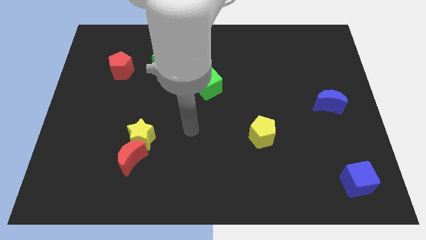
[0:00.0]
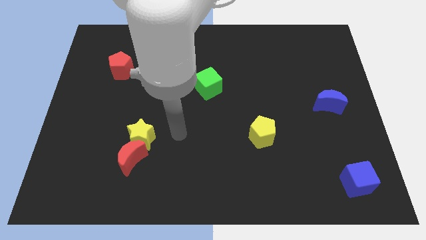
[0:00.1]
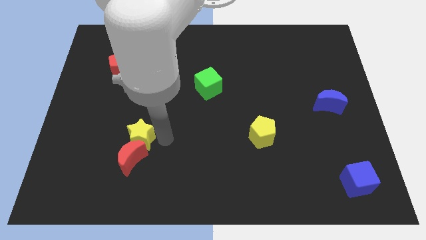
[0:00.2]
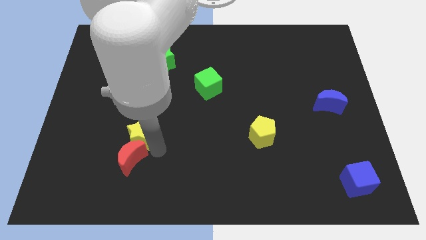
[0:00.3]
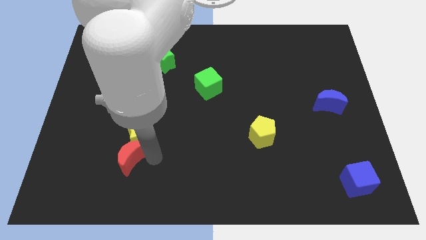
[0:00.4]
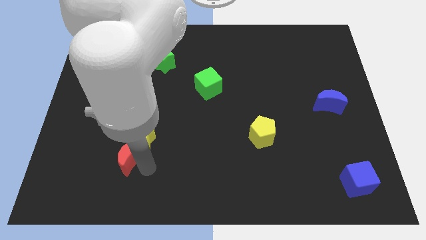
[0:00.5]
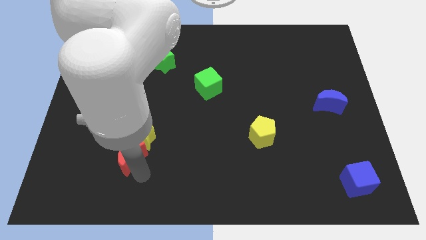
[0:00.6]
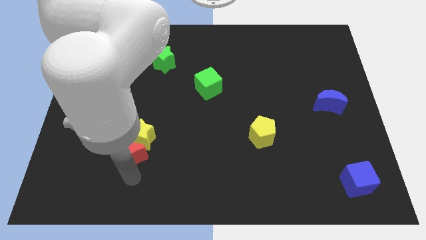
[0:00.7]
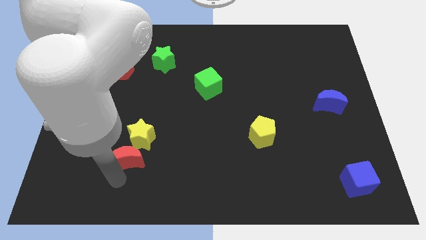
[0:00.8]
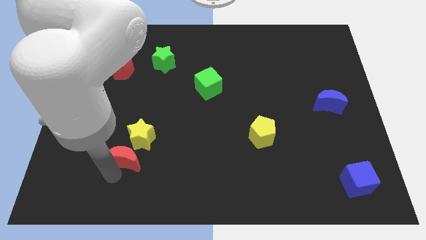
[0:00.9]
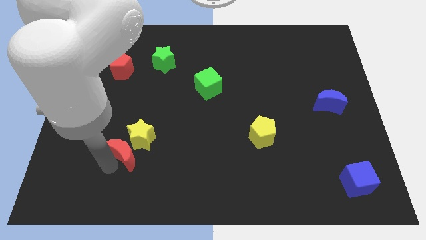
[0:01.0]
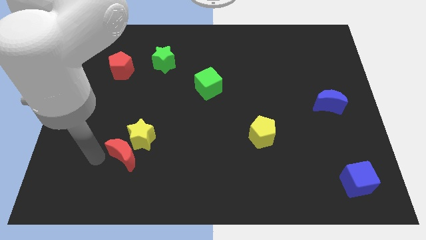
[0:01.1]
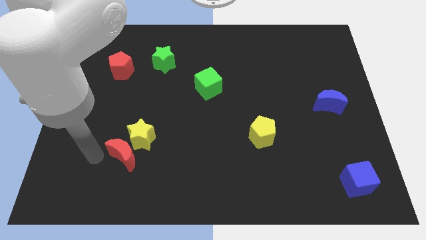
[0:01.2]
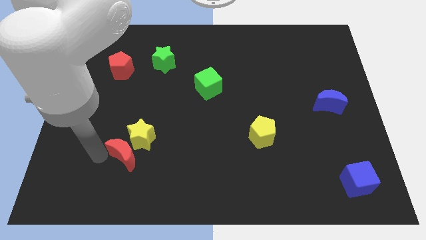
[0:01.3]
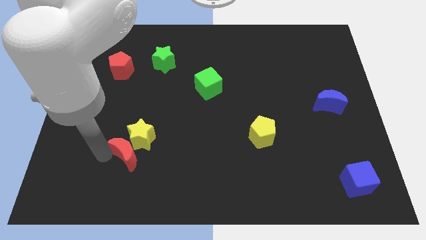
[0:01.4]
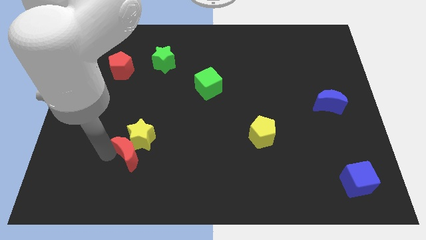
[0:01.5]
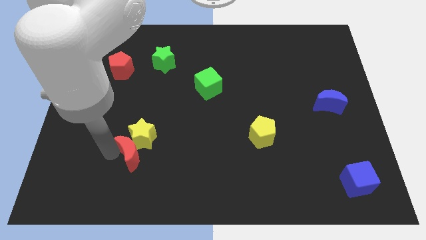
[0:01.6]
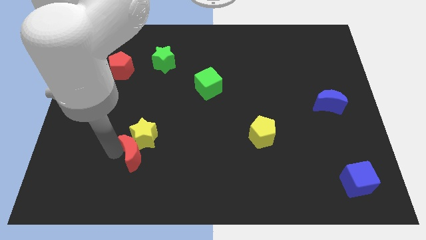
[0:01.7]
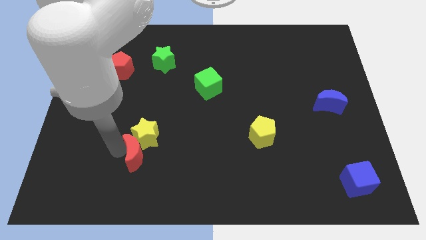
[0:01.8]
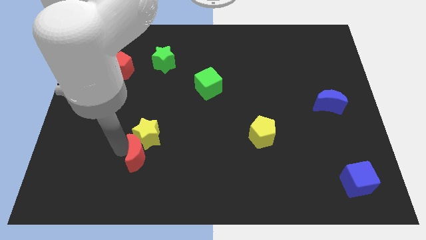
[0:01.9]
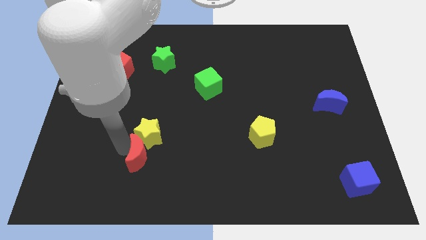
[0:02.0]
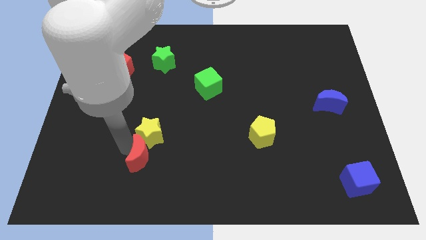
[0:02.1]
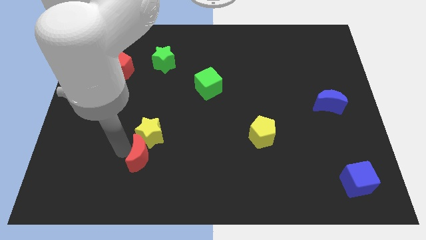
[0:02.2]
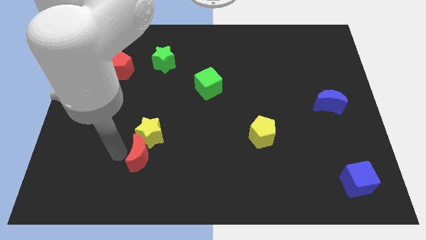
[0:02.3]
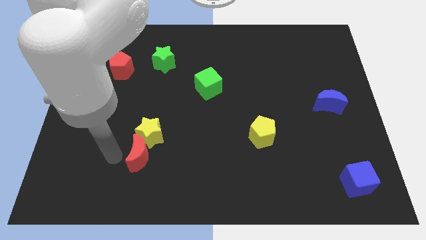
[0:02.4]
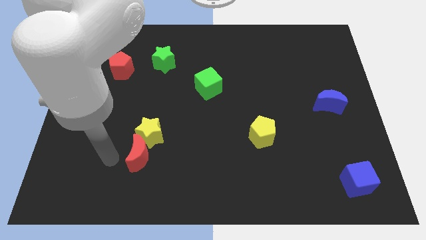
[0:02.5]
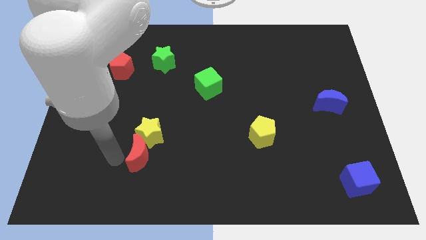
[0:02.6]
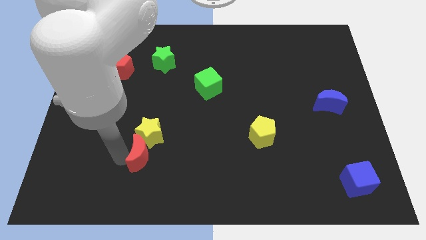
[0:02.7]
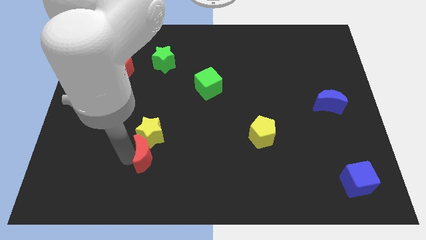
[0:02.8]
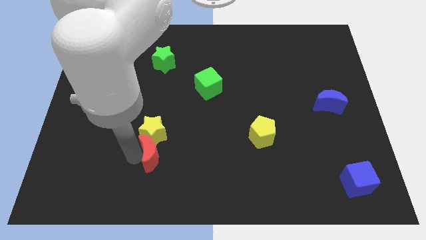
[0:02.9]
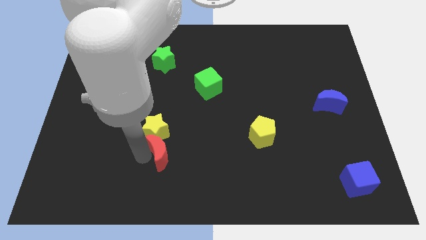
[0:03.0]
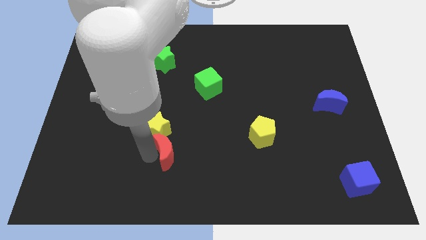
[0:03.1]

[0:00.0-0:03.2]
slightly slide the red moon to the right

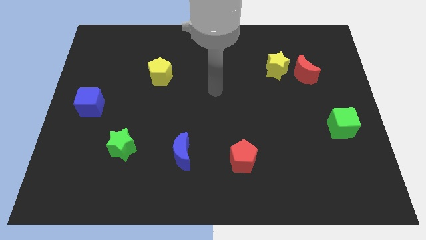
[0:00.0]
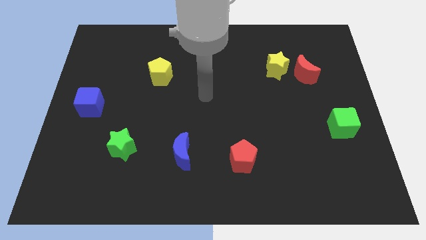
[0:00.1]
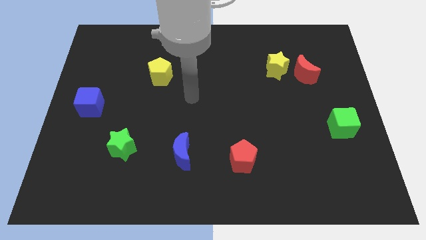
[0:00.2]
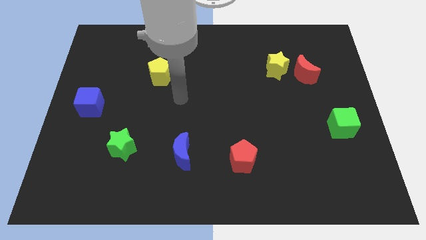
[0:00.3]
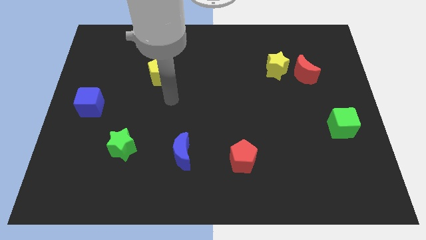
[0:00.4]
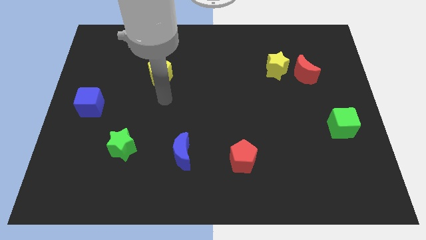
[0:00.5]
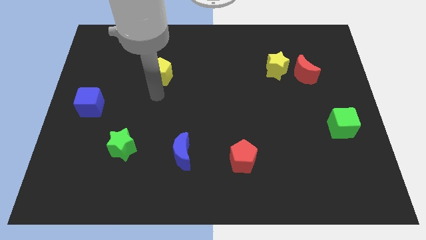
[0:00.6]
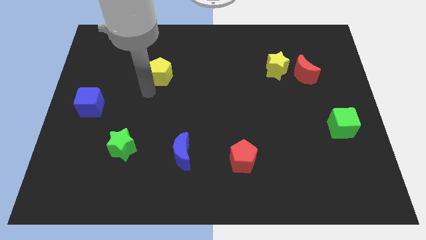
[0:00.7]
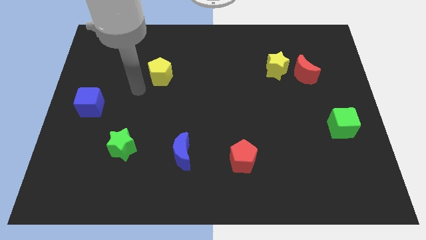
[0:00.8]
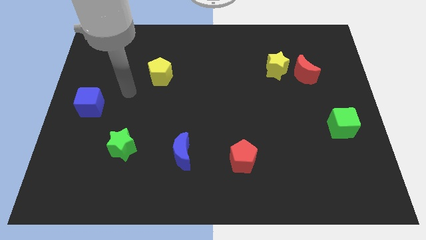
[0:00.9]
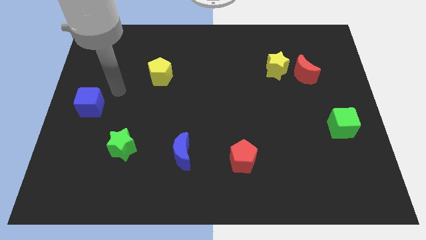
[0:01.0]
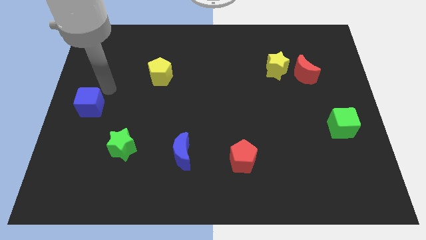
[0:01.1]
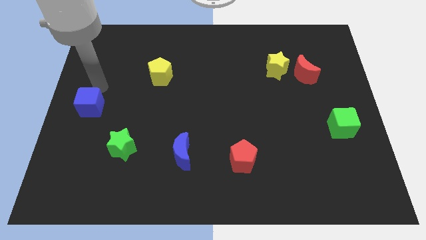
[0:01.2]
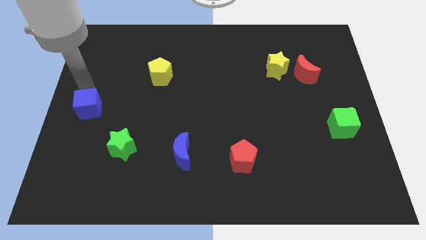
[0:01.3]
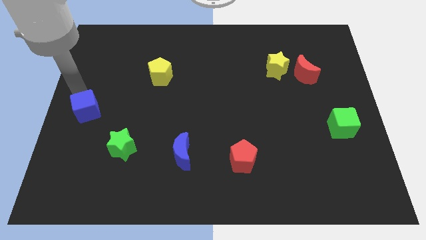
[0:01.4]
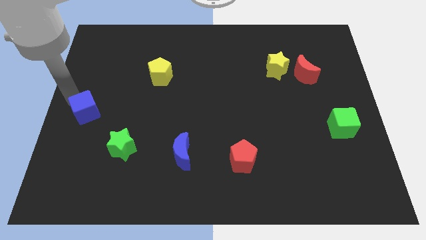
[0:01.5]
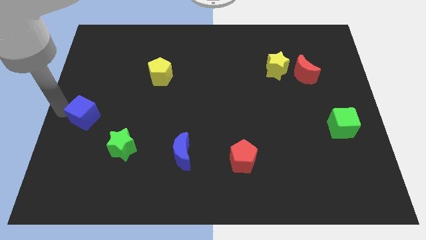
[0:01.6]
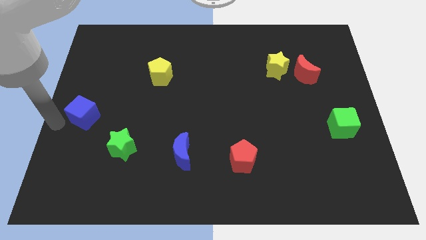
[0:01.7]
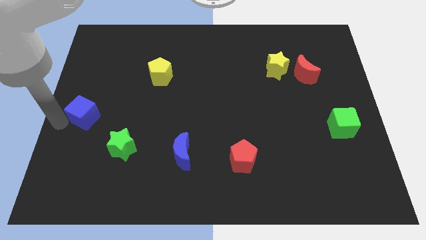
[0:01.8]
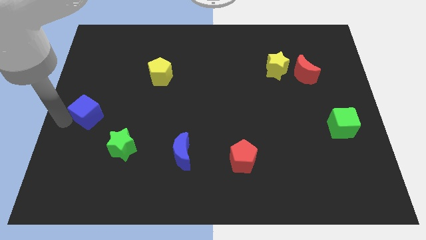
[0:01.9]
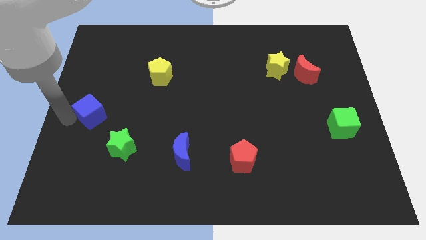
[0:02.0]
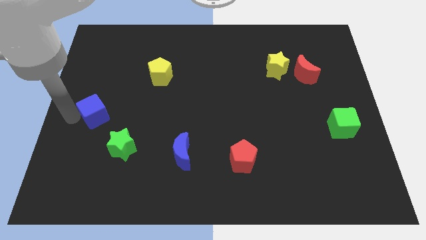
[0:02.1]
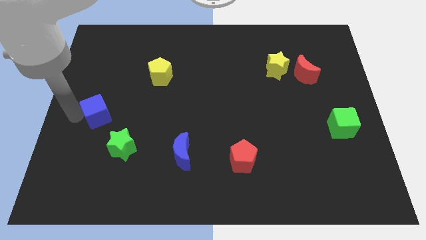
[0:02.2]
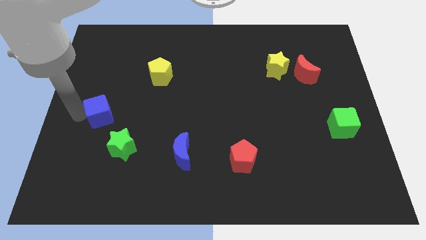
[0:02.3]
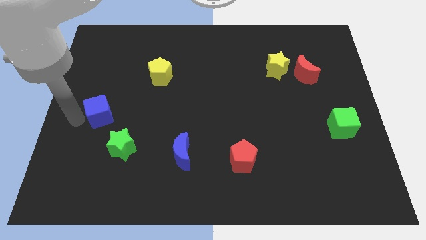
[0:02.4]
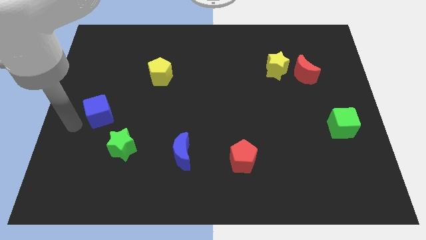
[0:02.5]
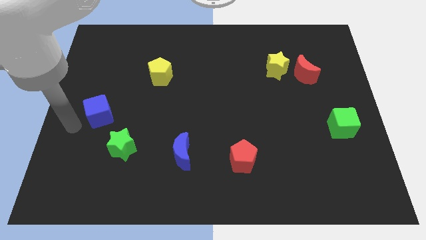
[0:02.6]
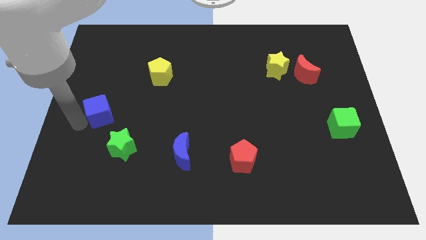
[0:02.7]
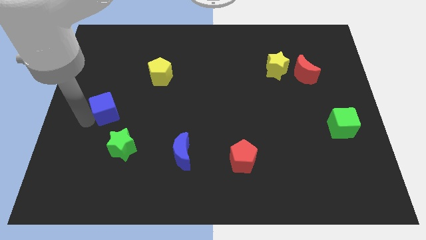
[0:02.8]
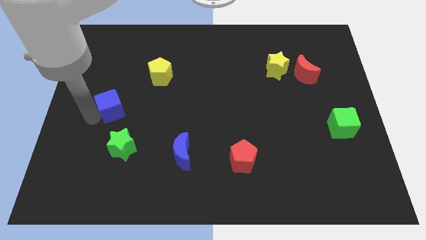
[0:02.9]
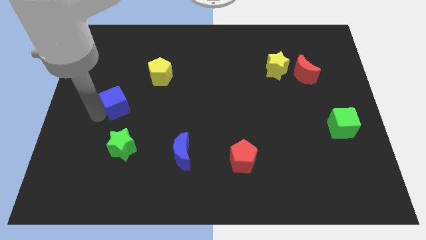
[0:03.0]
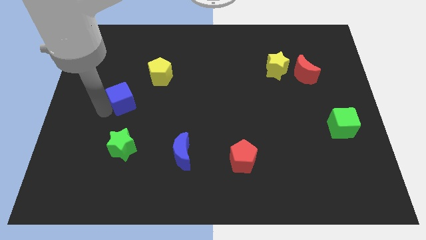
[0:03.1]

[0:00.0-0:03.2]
slide the blue cube to the right a bit

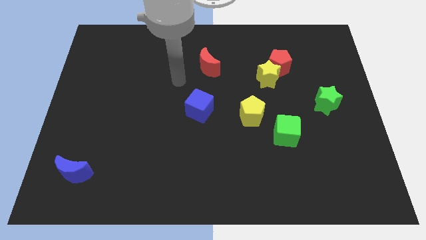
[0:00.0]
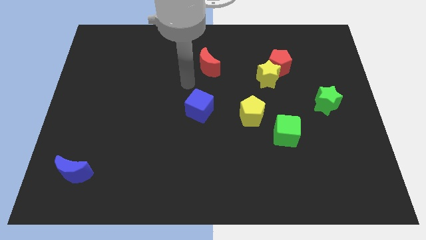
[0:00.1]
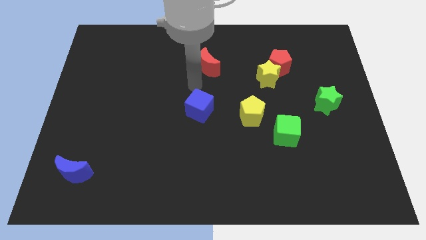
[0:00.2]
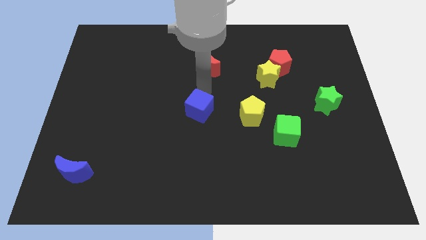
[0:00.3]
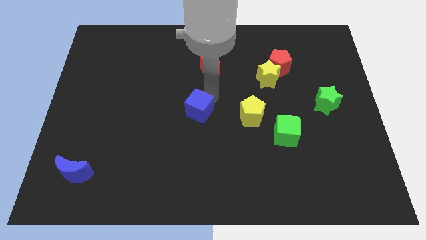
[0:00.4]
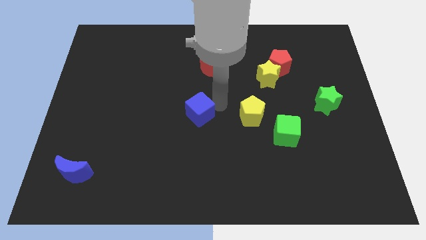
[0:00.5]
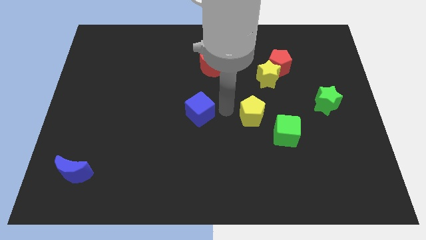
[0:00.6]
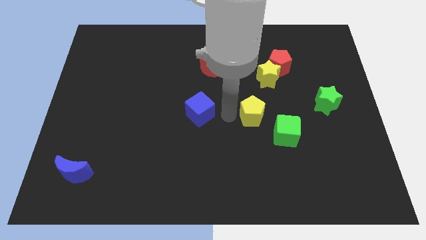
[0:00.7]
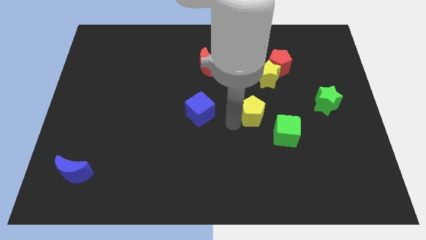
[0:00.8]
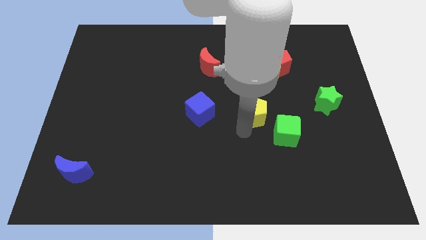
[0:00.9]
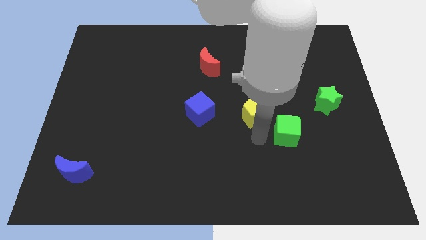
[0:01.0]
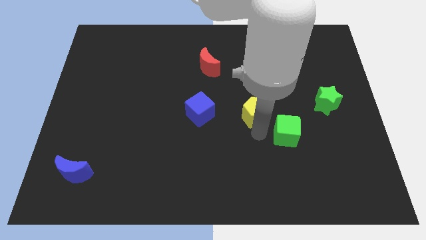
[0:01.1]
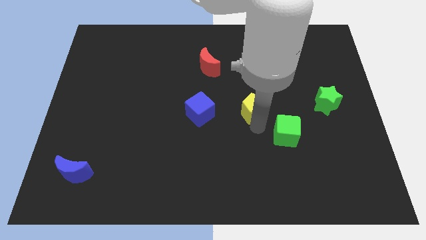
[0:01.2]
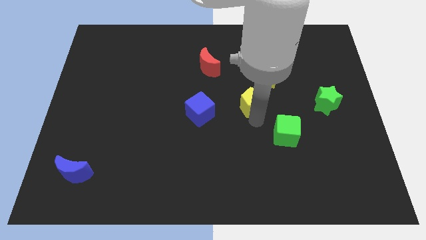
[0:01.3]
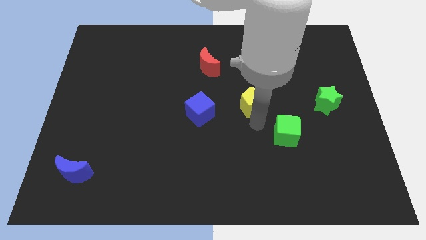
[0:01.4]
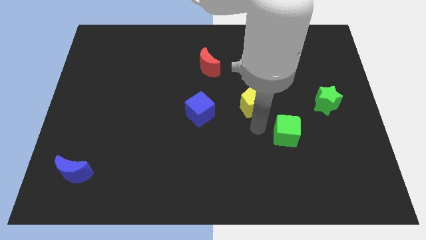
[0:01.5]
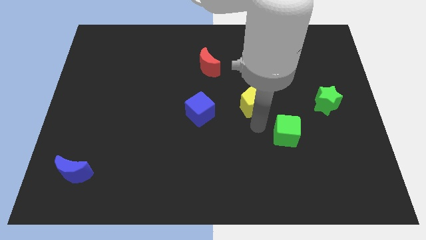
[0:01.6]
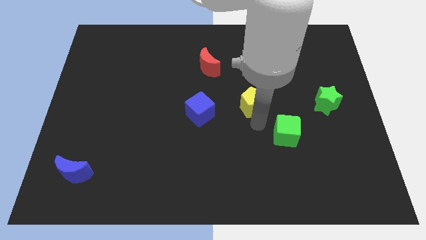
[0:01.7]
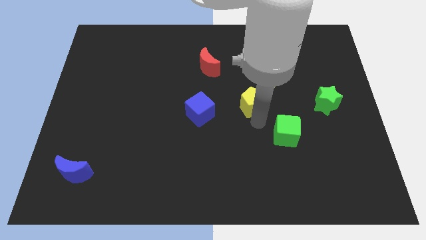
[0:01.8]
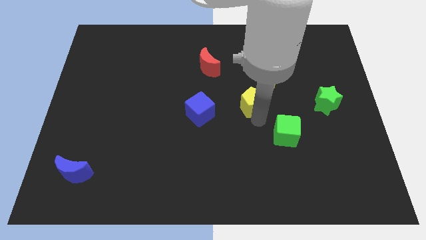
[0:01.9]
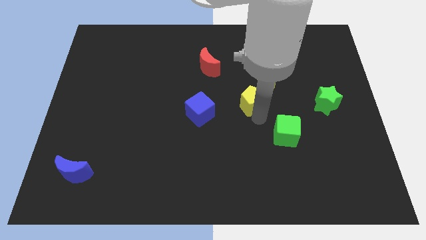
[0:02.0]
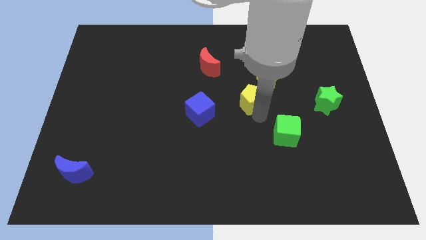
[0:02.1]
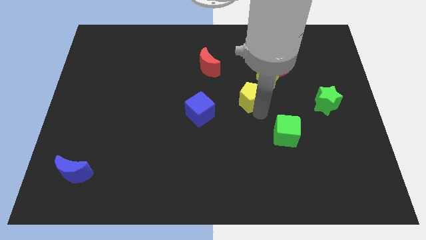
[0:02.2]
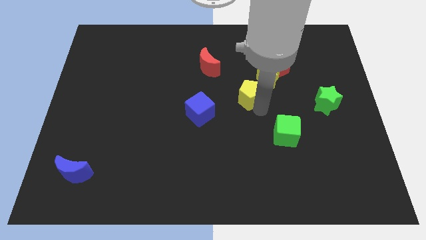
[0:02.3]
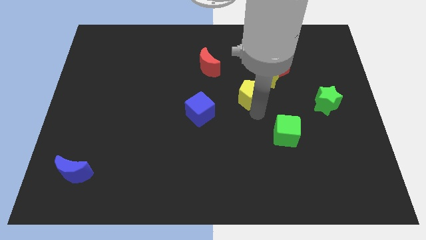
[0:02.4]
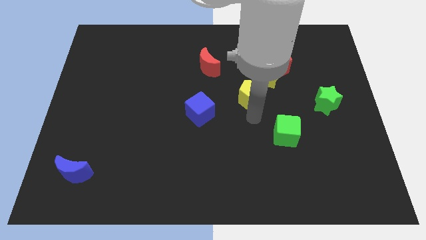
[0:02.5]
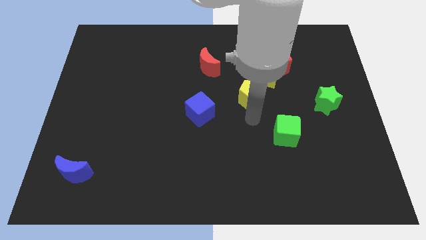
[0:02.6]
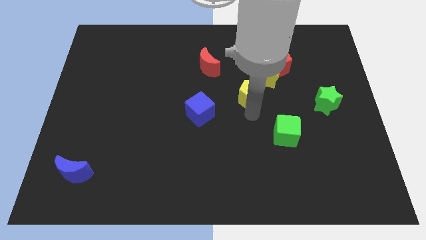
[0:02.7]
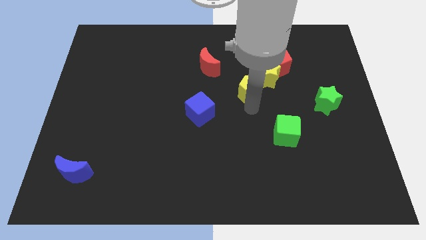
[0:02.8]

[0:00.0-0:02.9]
move the yellow pentagon upwards somewhat
